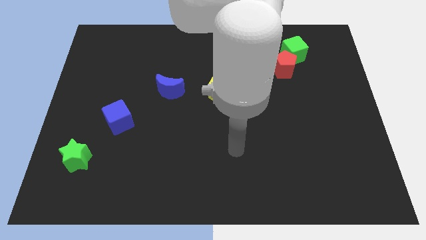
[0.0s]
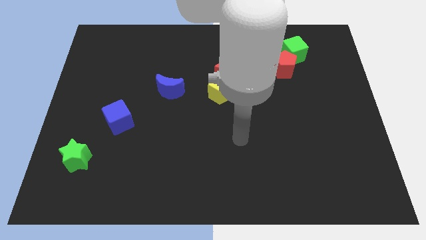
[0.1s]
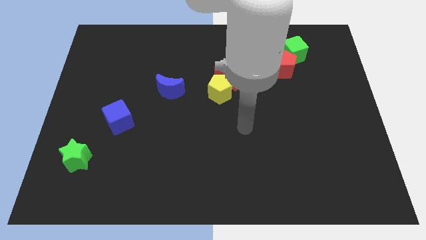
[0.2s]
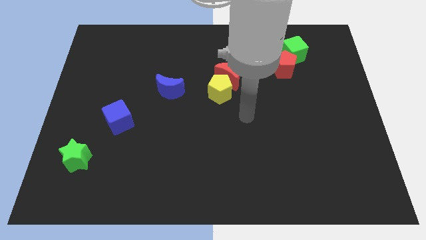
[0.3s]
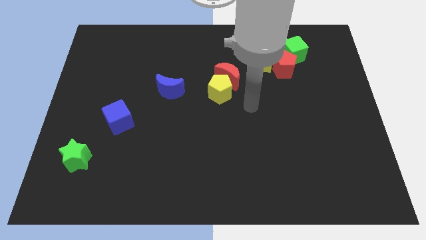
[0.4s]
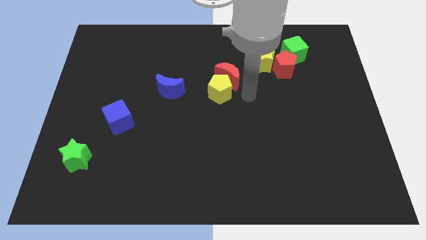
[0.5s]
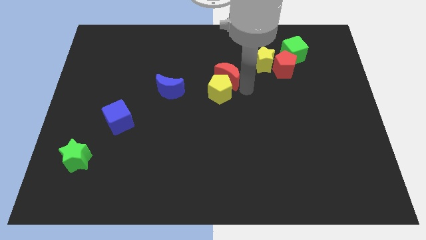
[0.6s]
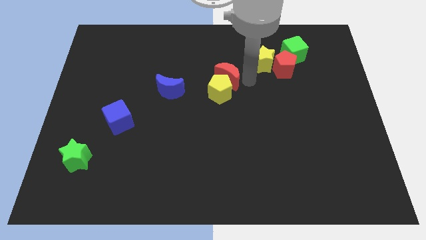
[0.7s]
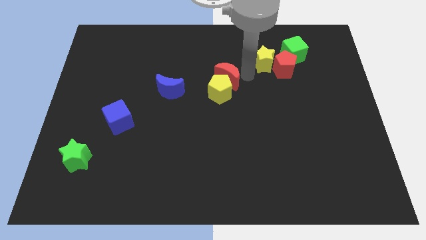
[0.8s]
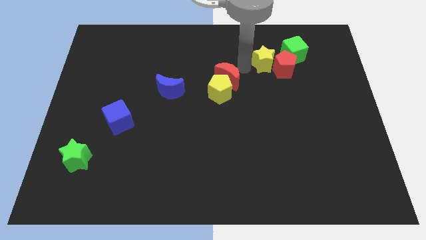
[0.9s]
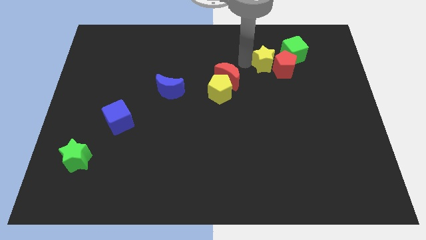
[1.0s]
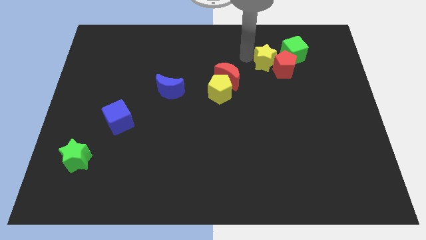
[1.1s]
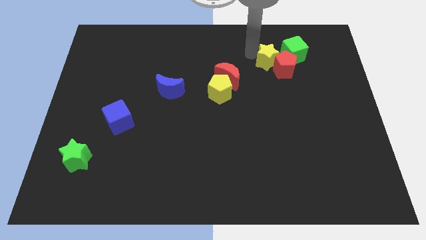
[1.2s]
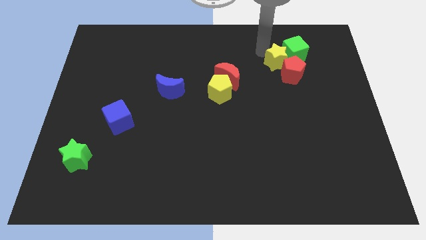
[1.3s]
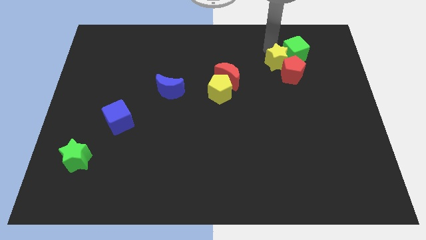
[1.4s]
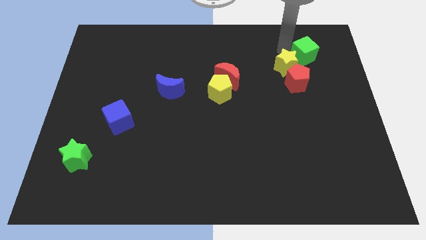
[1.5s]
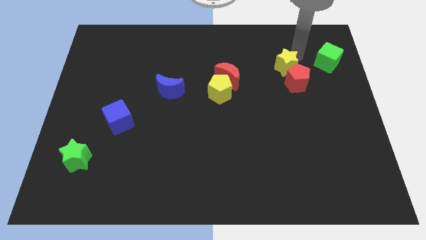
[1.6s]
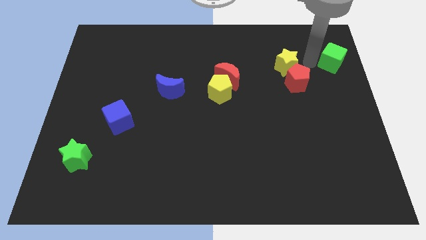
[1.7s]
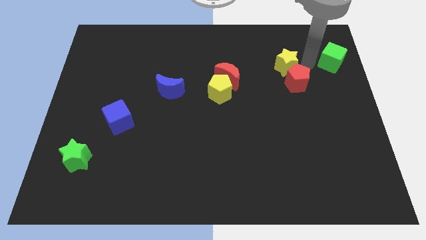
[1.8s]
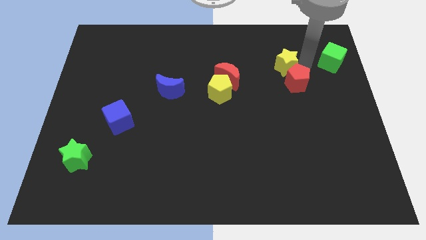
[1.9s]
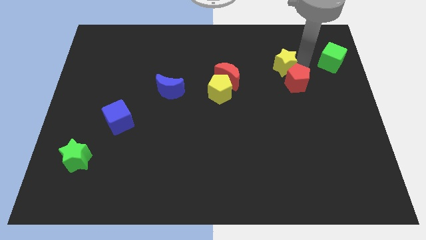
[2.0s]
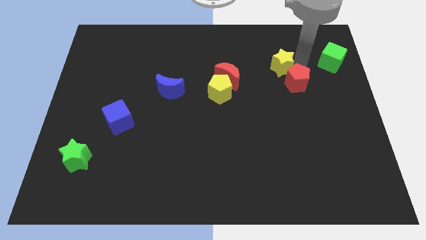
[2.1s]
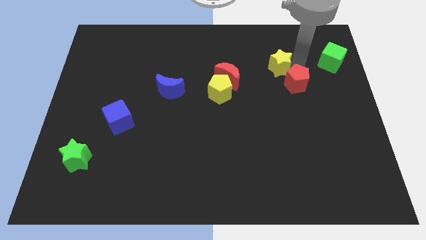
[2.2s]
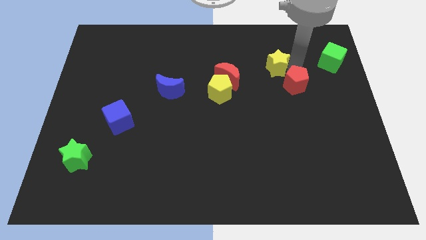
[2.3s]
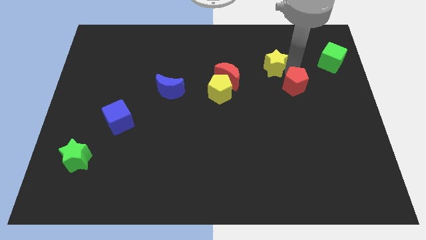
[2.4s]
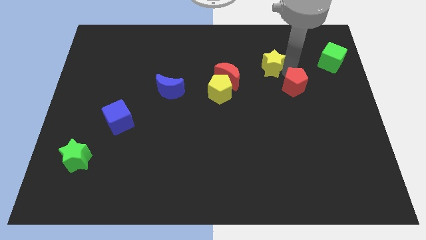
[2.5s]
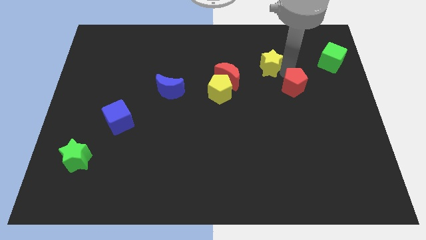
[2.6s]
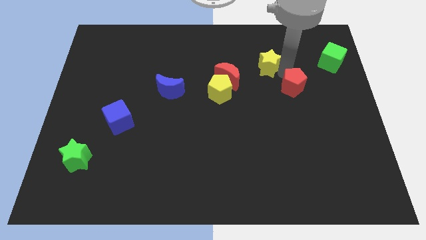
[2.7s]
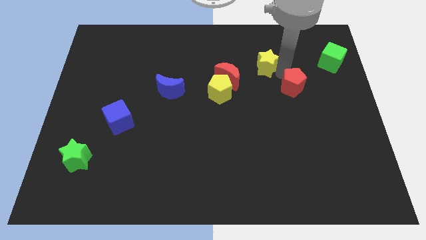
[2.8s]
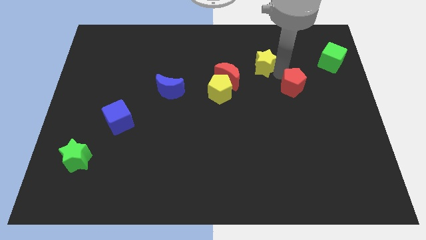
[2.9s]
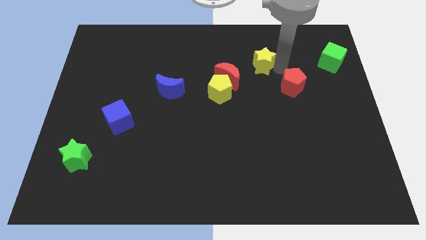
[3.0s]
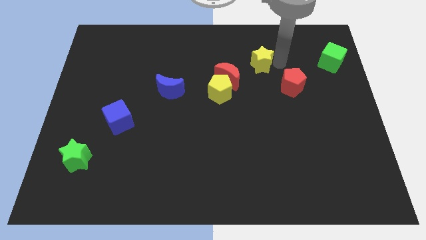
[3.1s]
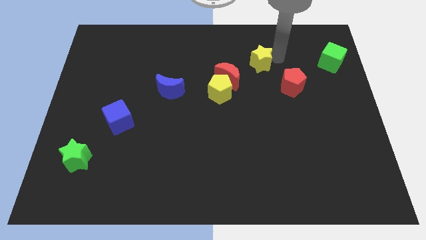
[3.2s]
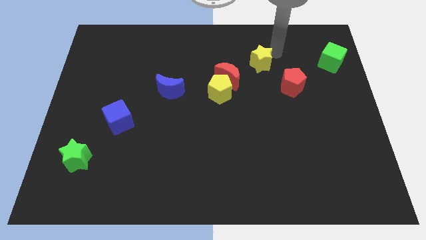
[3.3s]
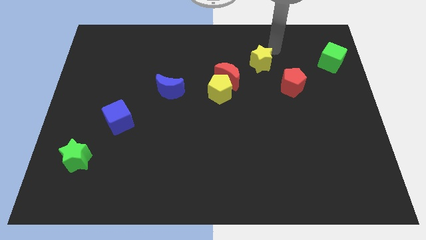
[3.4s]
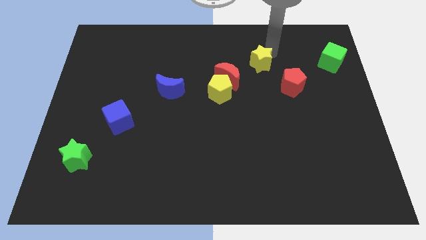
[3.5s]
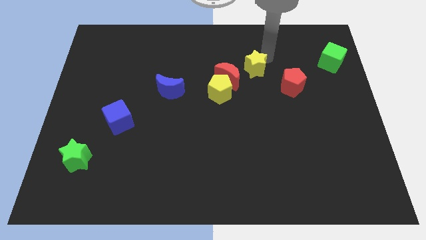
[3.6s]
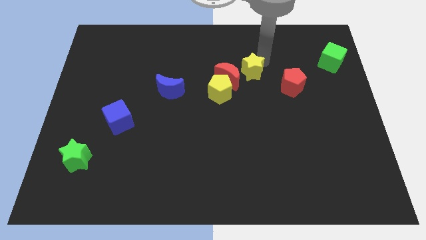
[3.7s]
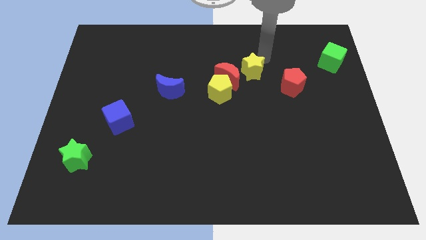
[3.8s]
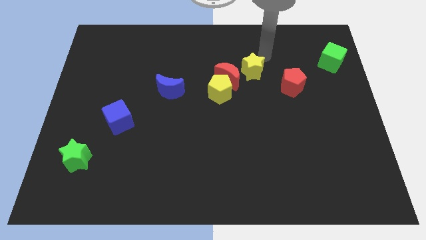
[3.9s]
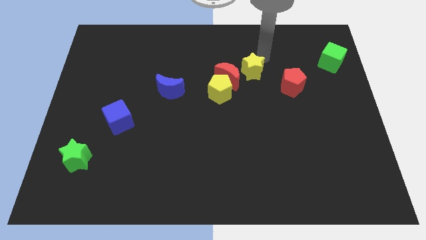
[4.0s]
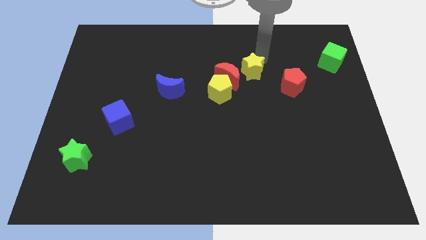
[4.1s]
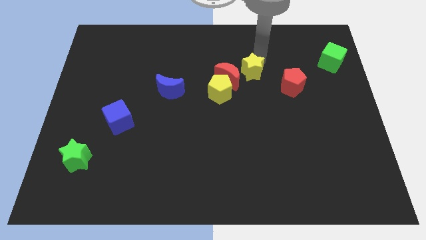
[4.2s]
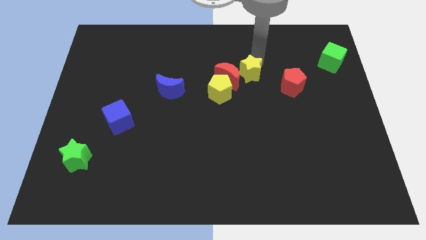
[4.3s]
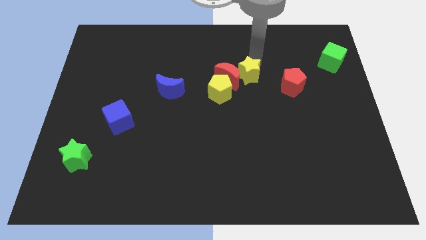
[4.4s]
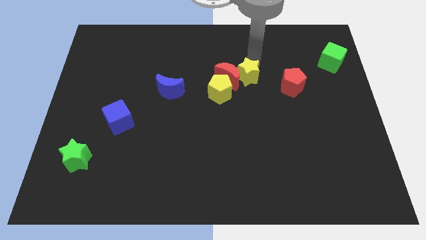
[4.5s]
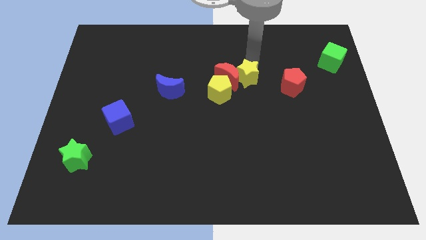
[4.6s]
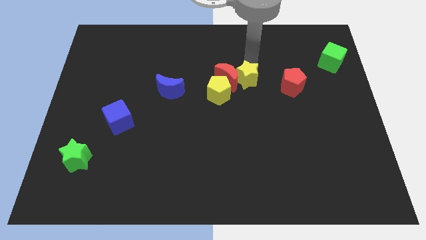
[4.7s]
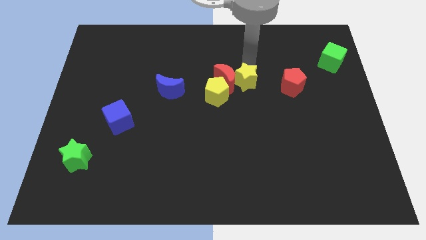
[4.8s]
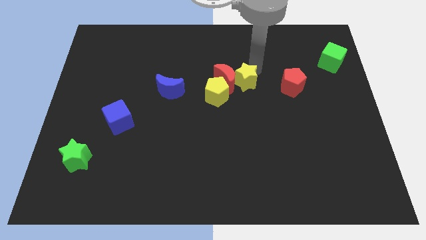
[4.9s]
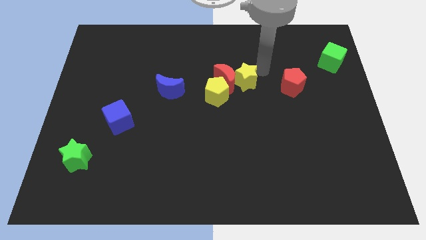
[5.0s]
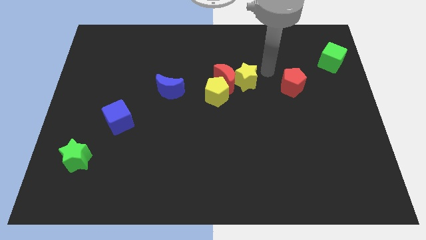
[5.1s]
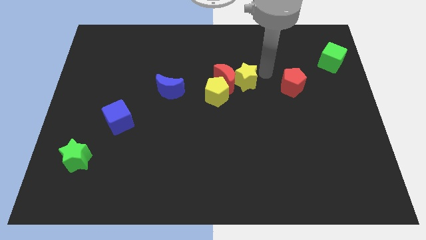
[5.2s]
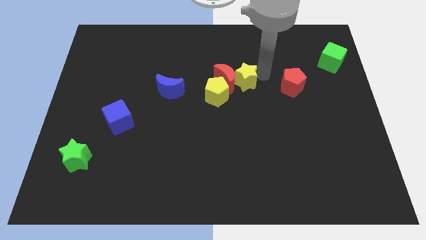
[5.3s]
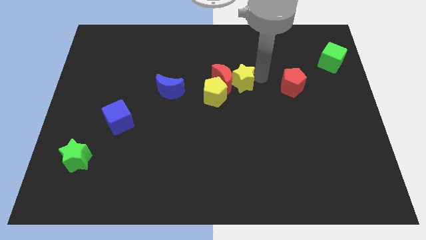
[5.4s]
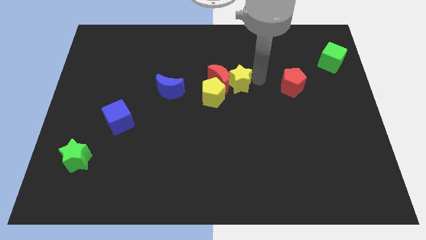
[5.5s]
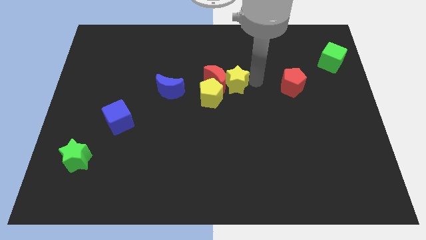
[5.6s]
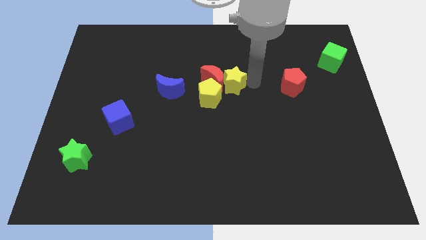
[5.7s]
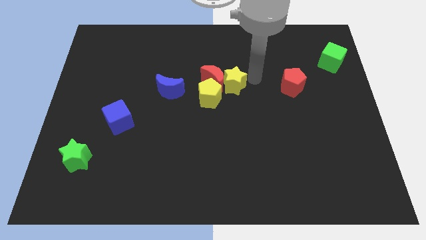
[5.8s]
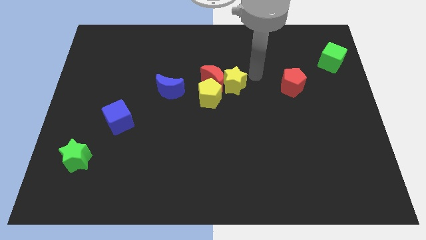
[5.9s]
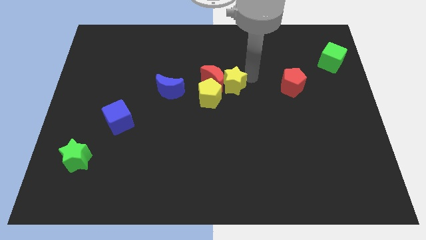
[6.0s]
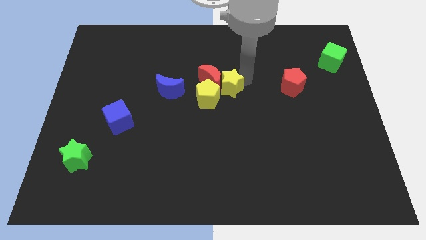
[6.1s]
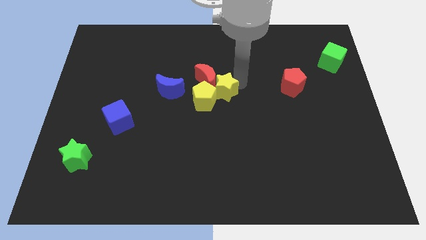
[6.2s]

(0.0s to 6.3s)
slide the yellow star close to the yellow pentagon
